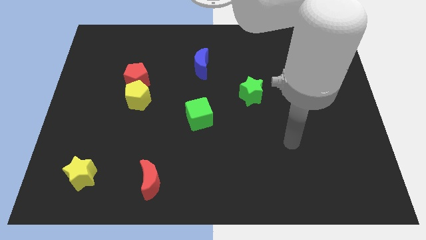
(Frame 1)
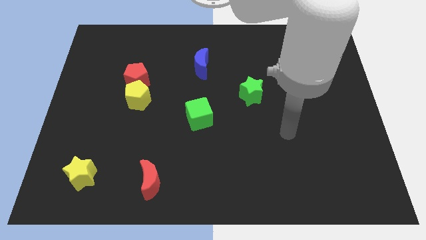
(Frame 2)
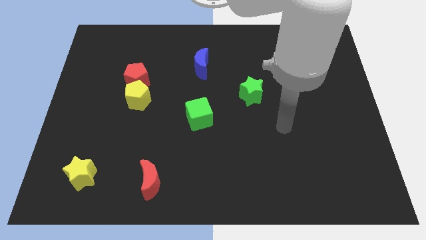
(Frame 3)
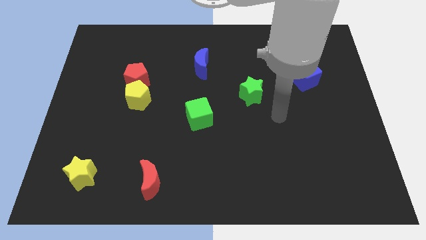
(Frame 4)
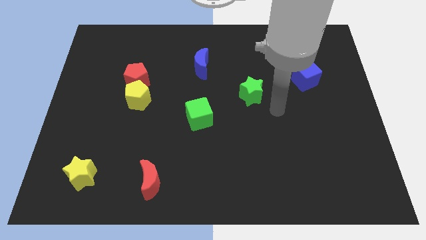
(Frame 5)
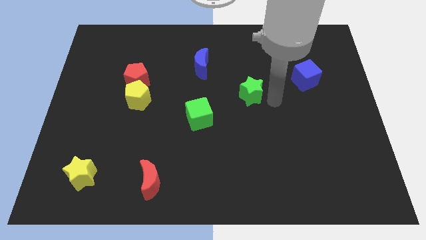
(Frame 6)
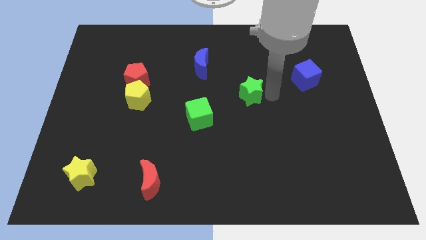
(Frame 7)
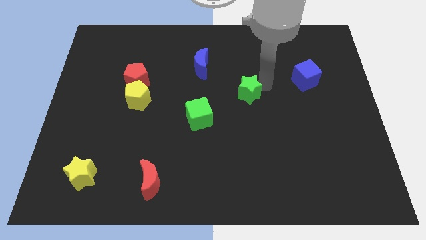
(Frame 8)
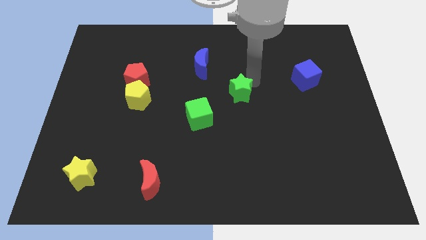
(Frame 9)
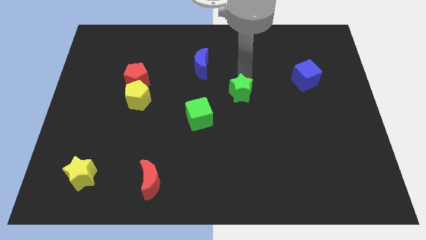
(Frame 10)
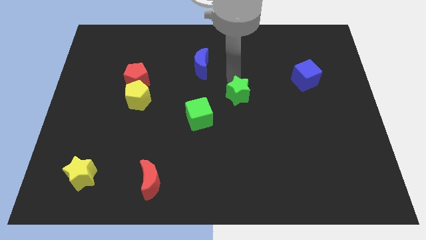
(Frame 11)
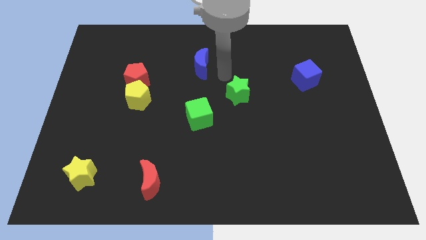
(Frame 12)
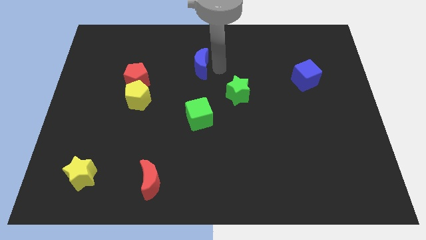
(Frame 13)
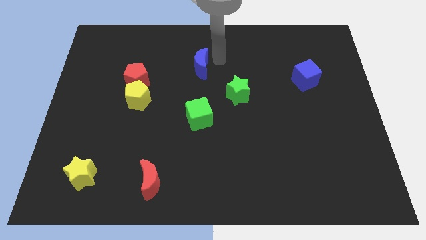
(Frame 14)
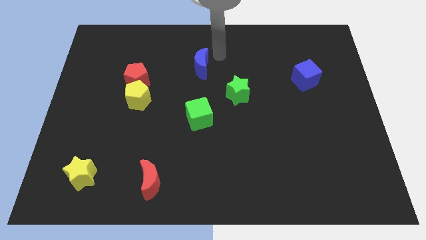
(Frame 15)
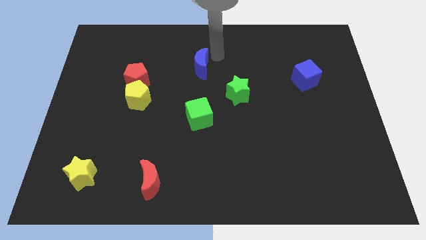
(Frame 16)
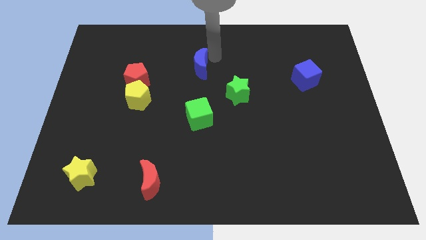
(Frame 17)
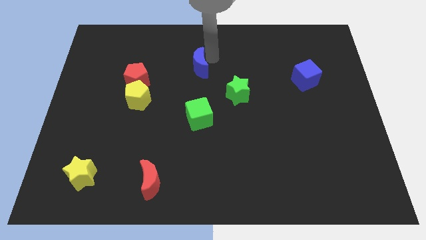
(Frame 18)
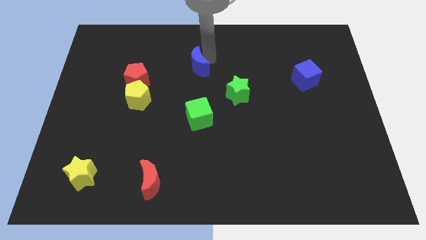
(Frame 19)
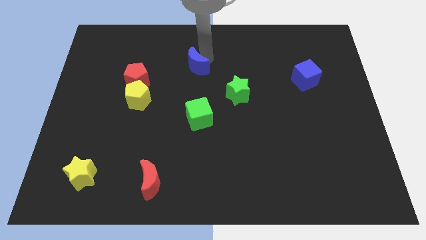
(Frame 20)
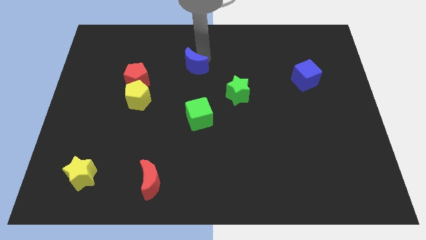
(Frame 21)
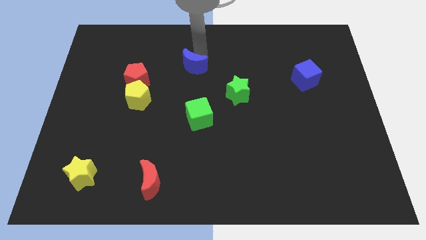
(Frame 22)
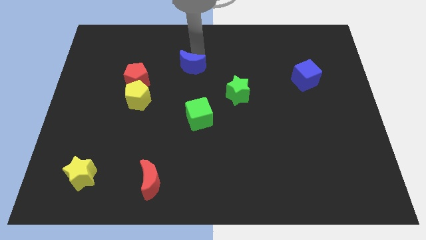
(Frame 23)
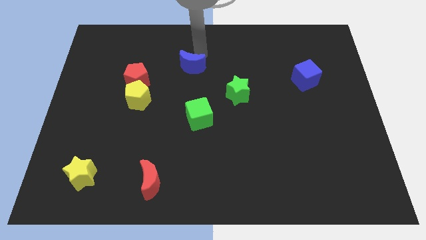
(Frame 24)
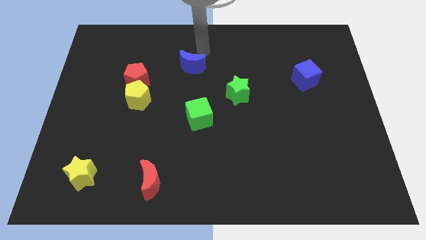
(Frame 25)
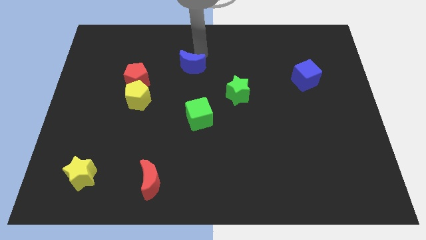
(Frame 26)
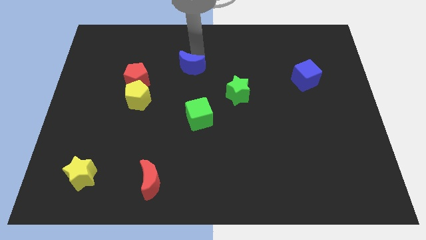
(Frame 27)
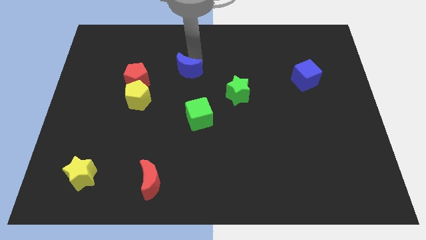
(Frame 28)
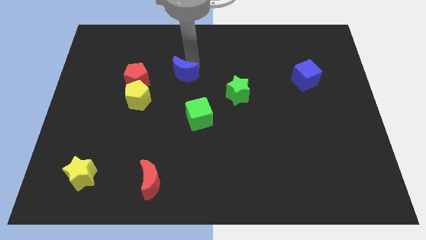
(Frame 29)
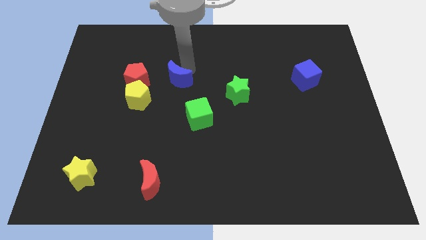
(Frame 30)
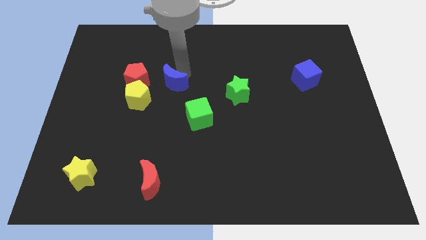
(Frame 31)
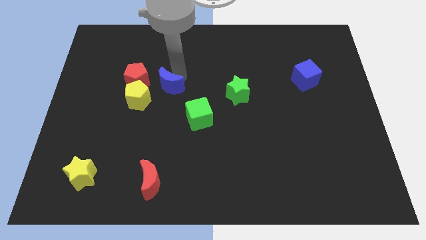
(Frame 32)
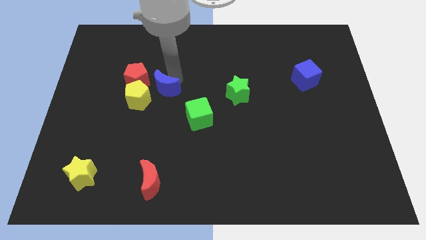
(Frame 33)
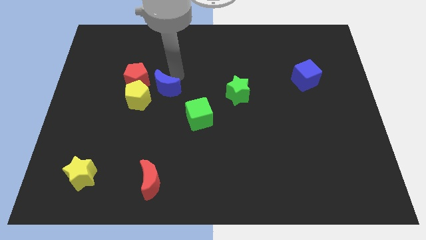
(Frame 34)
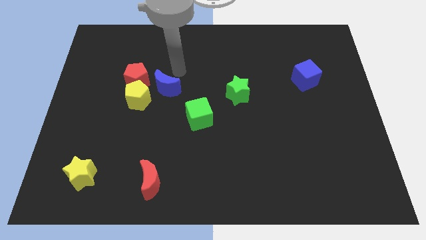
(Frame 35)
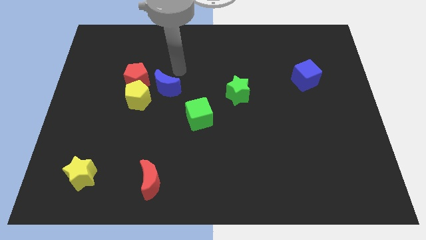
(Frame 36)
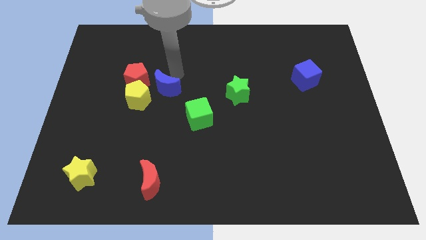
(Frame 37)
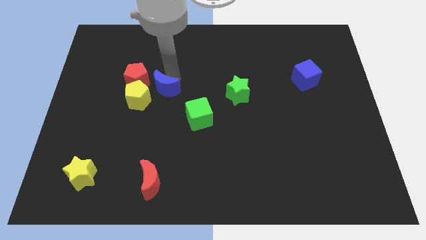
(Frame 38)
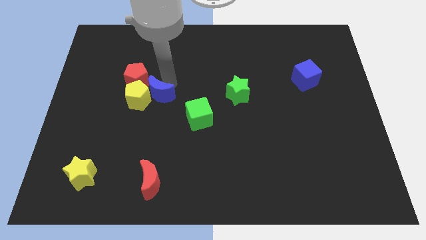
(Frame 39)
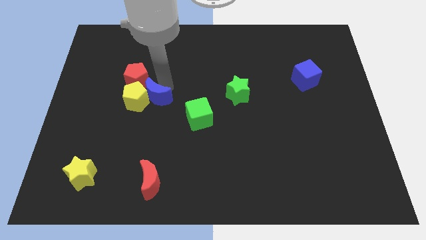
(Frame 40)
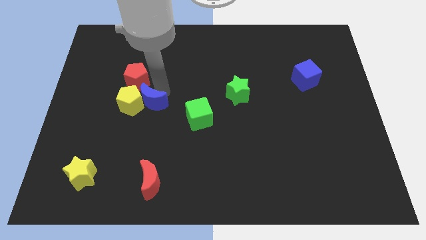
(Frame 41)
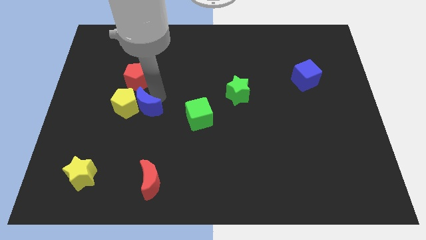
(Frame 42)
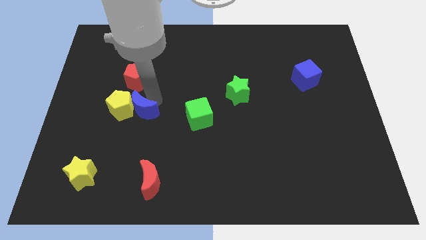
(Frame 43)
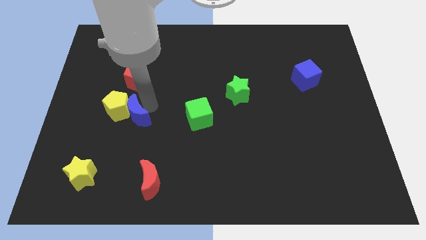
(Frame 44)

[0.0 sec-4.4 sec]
slide the blue moon diagonally down and to the left

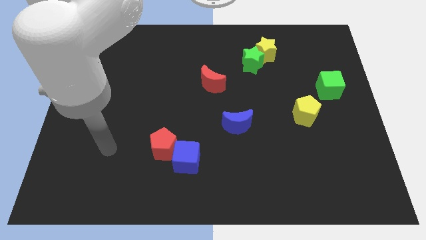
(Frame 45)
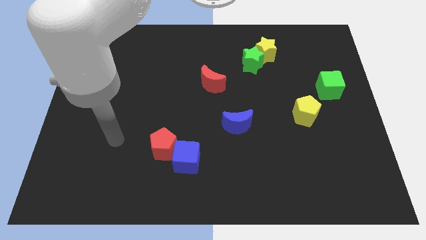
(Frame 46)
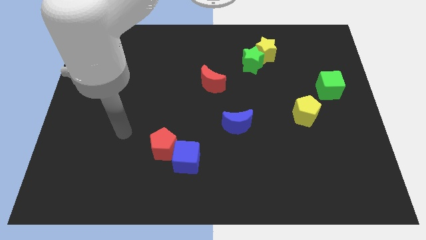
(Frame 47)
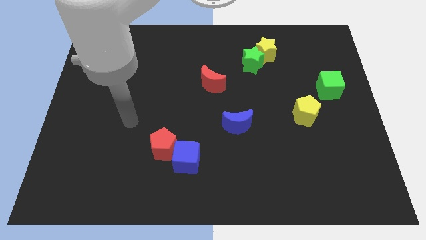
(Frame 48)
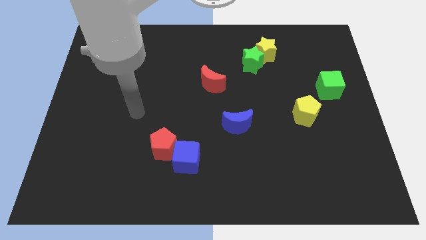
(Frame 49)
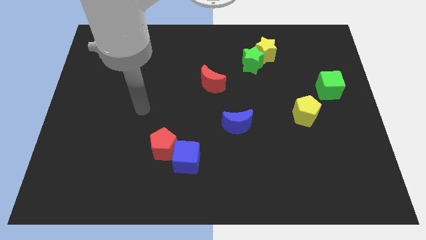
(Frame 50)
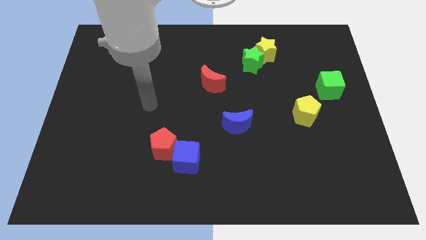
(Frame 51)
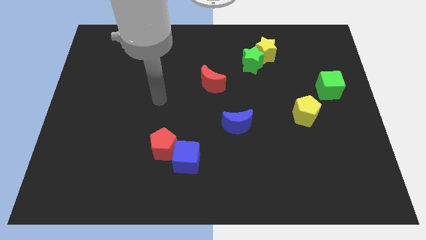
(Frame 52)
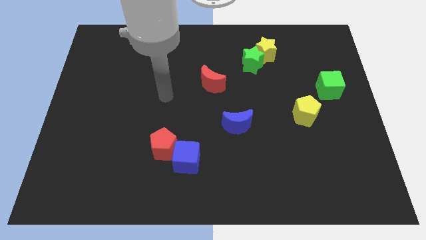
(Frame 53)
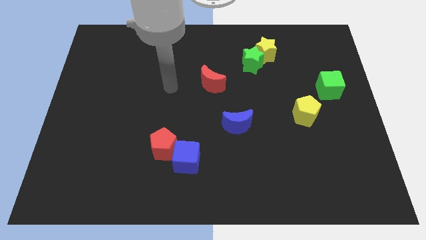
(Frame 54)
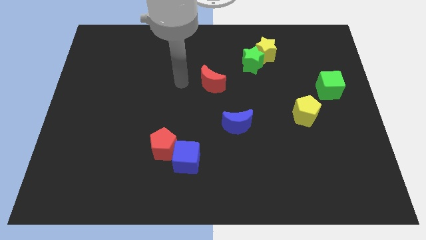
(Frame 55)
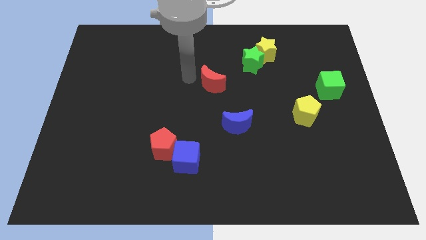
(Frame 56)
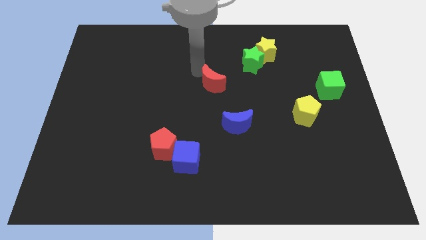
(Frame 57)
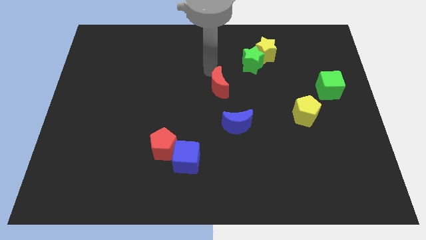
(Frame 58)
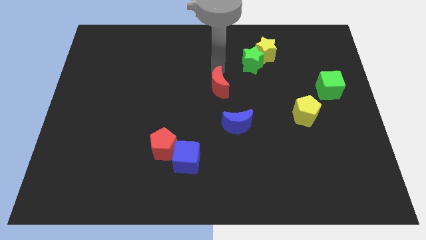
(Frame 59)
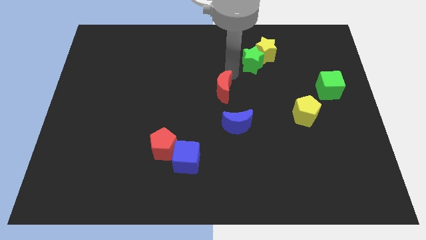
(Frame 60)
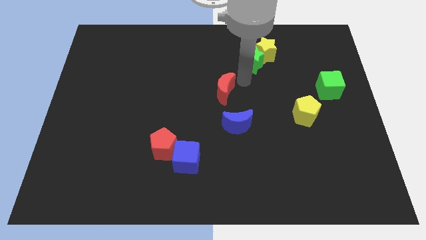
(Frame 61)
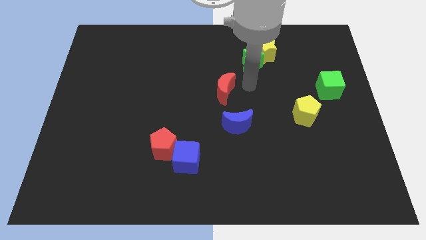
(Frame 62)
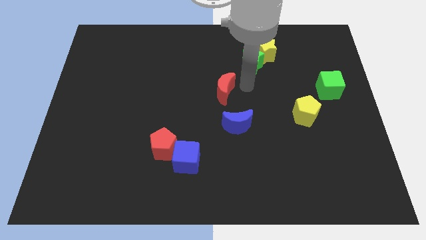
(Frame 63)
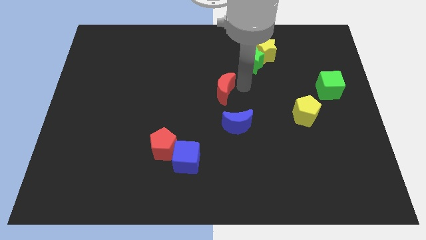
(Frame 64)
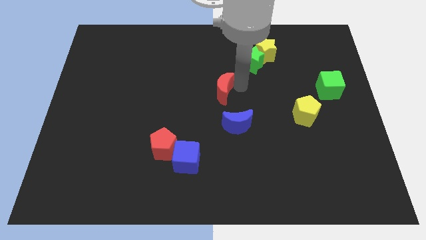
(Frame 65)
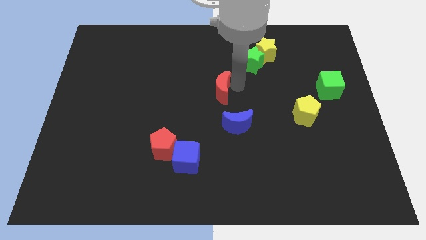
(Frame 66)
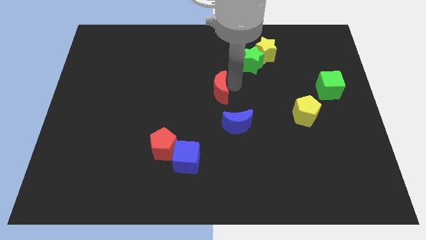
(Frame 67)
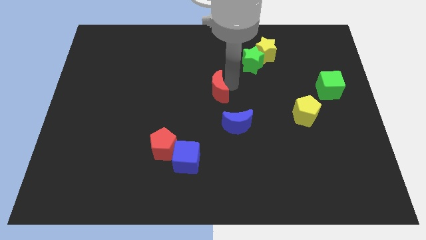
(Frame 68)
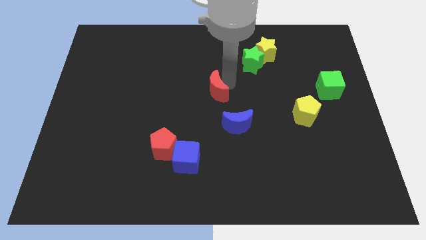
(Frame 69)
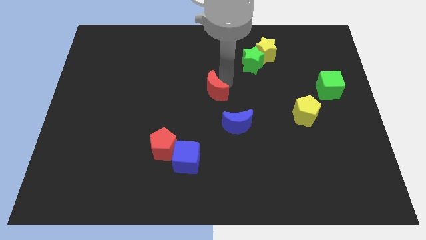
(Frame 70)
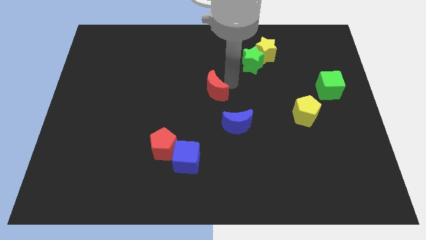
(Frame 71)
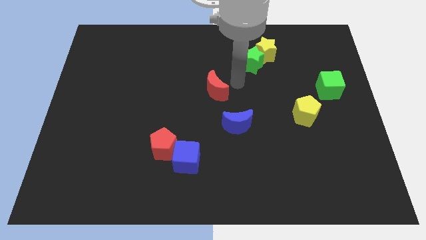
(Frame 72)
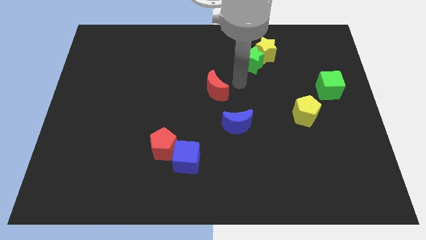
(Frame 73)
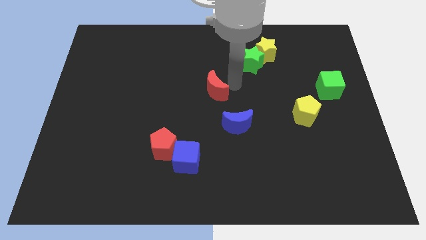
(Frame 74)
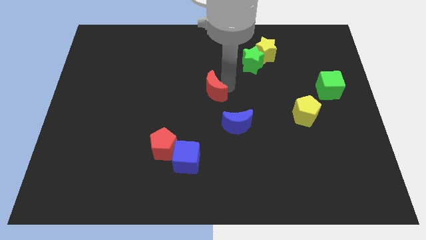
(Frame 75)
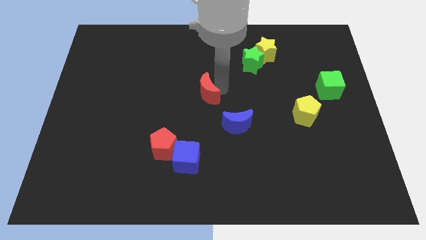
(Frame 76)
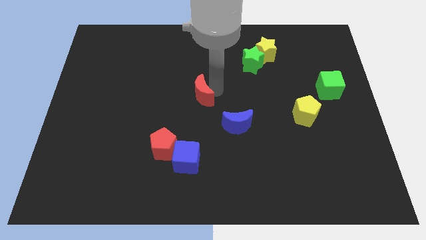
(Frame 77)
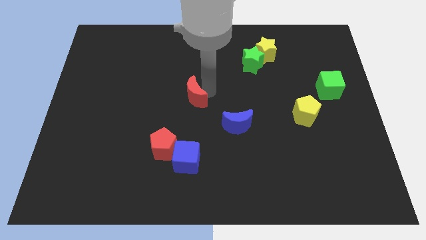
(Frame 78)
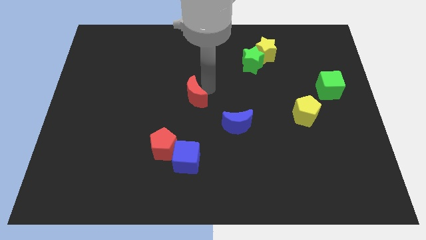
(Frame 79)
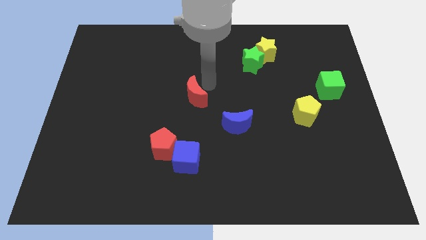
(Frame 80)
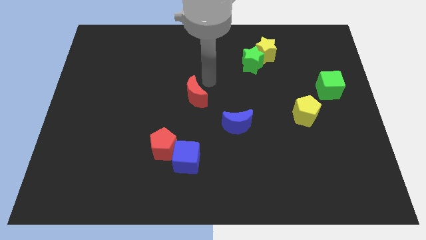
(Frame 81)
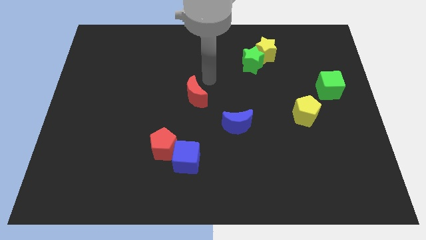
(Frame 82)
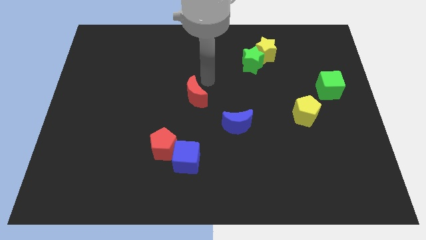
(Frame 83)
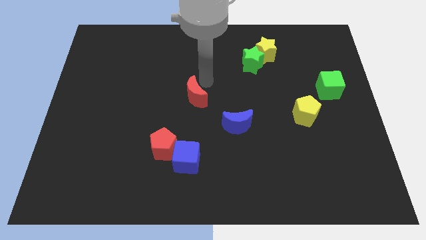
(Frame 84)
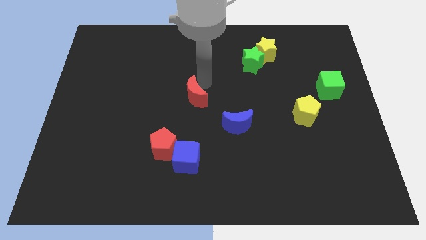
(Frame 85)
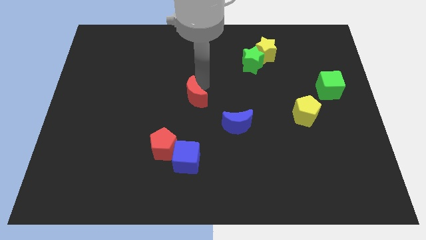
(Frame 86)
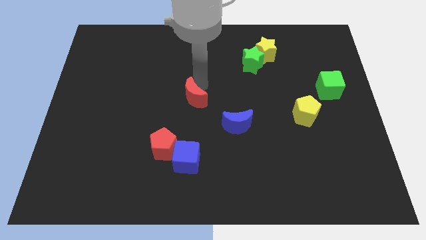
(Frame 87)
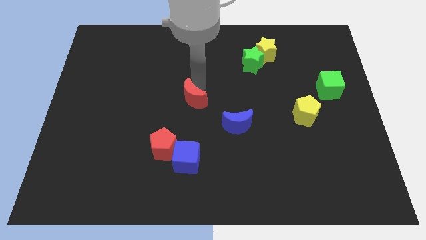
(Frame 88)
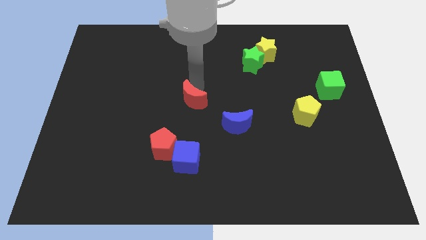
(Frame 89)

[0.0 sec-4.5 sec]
slightly push the red moon down and left diagonally
